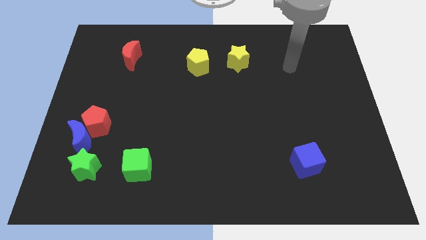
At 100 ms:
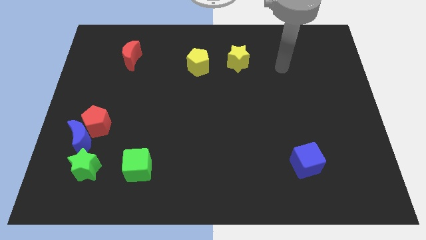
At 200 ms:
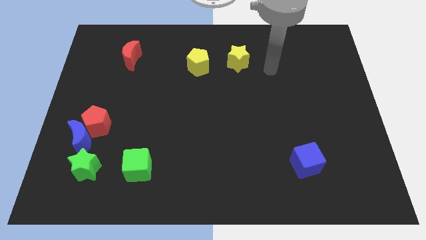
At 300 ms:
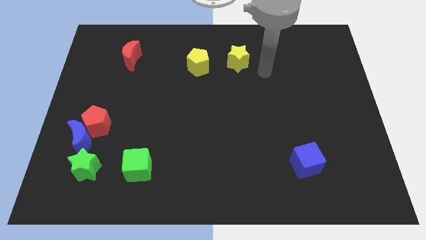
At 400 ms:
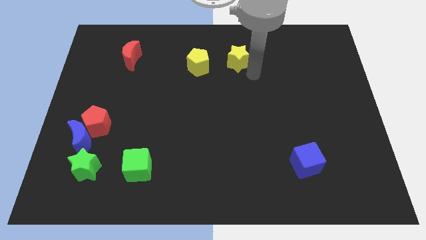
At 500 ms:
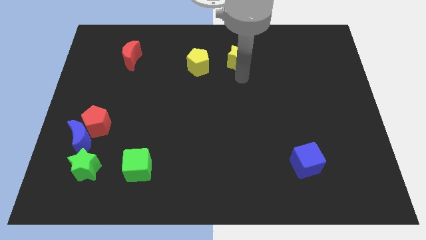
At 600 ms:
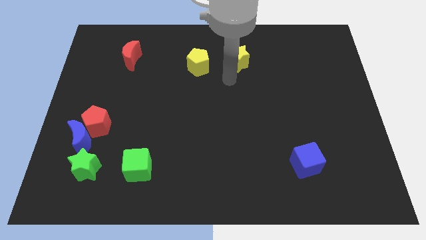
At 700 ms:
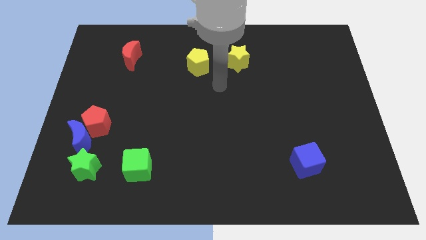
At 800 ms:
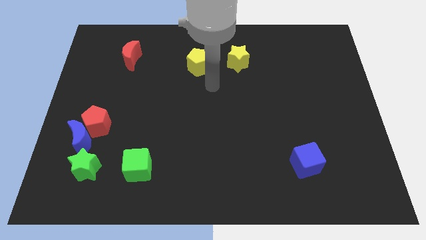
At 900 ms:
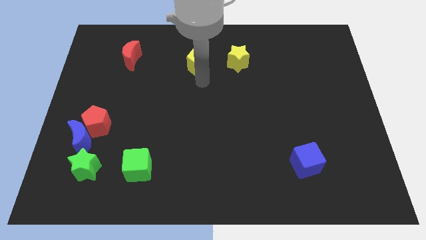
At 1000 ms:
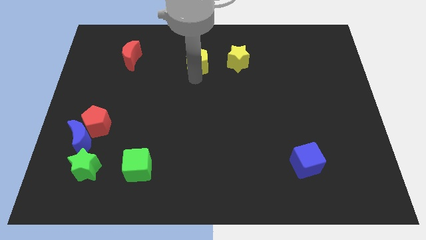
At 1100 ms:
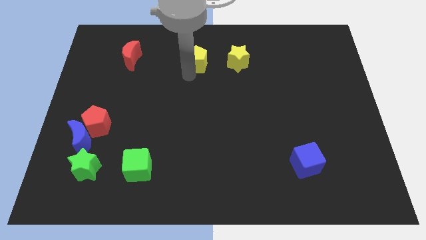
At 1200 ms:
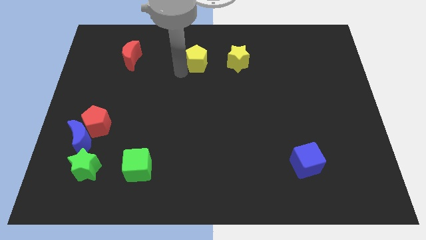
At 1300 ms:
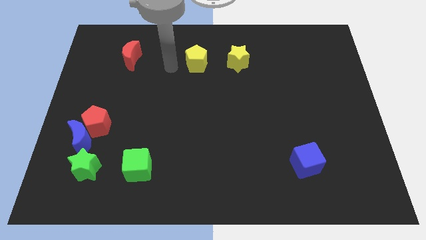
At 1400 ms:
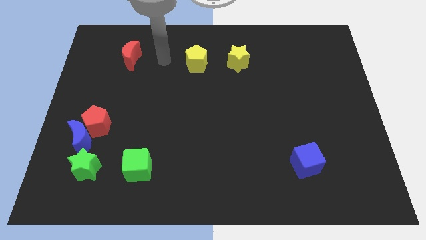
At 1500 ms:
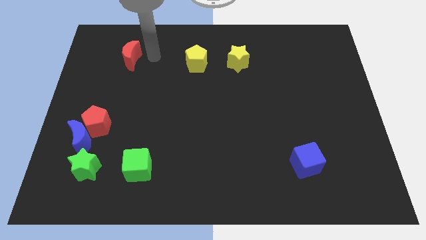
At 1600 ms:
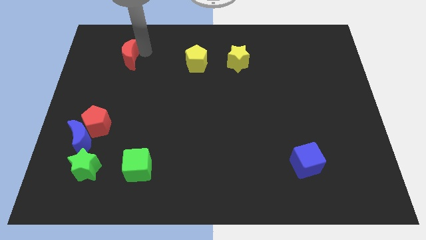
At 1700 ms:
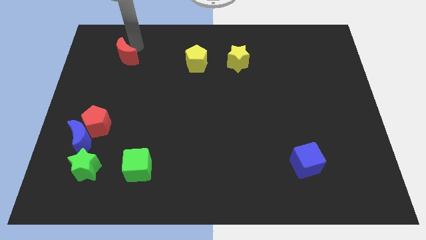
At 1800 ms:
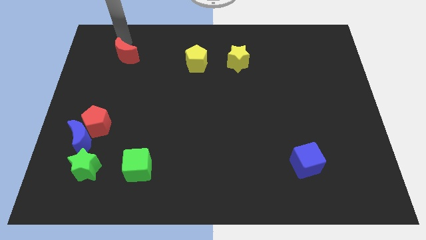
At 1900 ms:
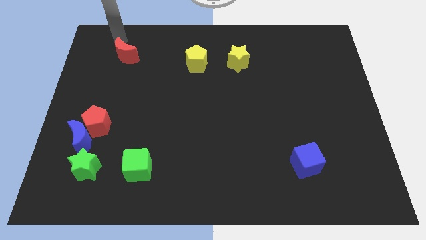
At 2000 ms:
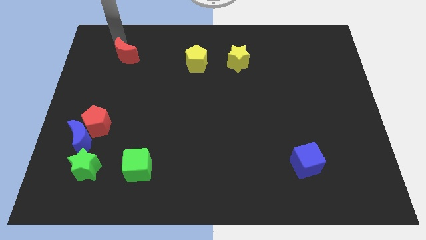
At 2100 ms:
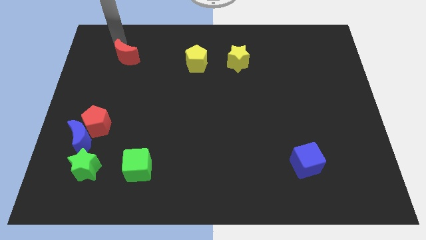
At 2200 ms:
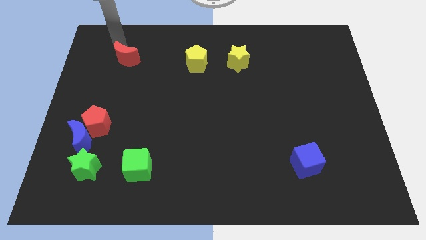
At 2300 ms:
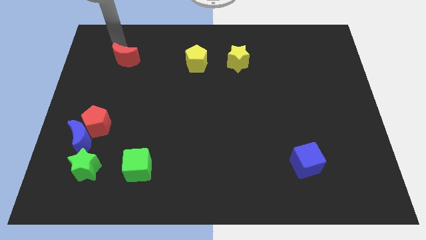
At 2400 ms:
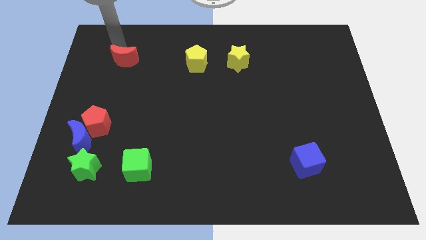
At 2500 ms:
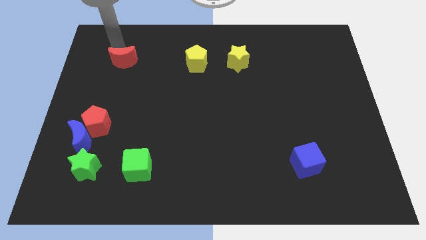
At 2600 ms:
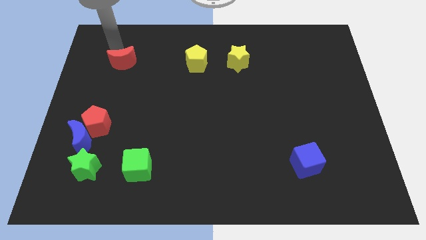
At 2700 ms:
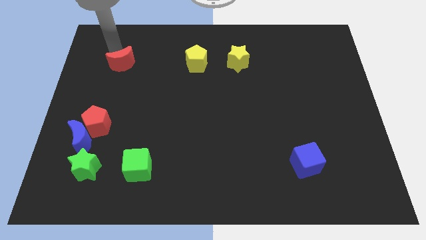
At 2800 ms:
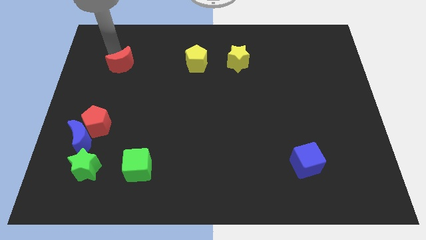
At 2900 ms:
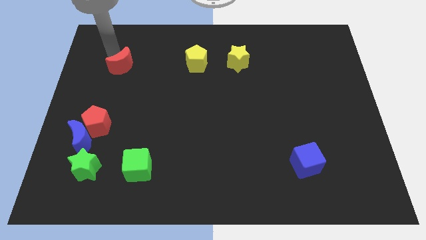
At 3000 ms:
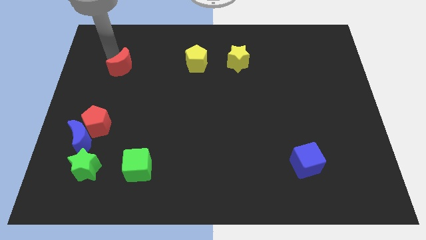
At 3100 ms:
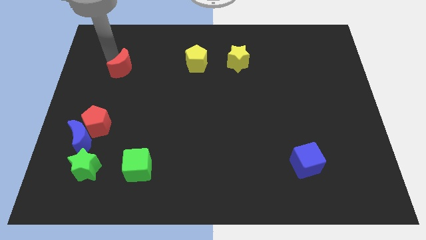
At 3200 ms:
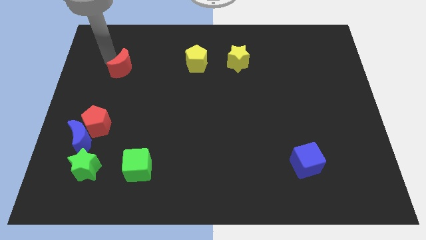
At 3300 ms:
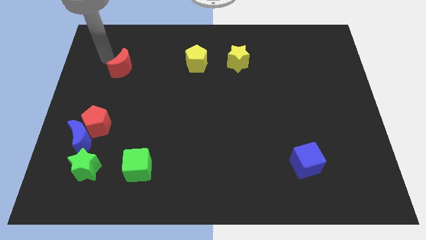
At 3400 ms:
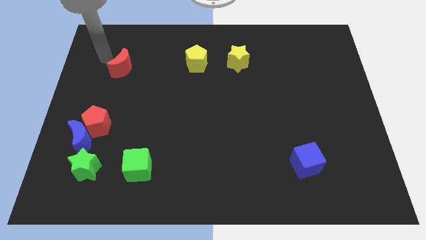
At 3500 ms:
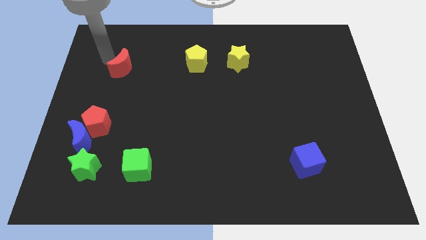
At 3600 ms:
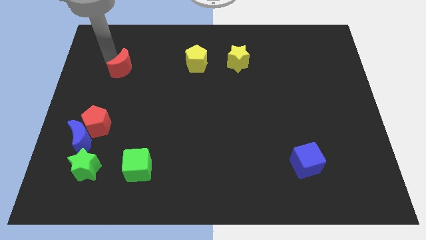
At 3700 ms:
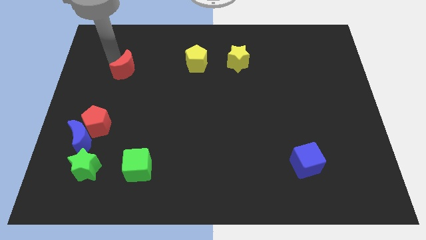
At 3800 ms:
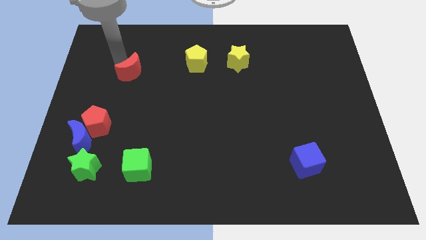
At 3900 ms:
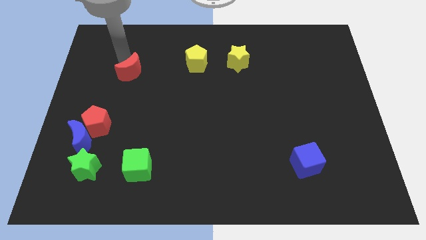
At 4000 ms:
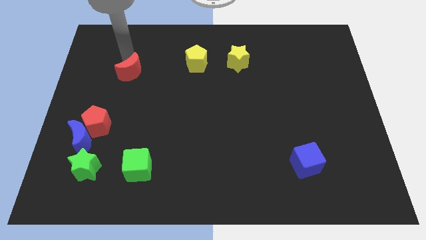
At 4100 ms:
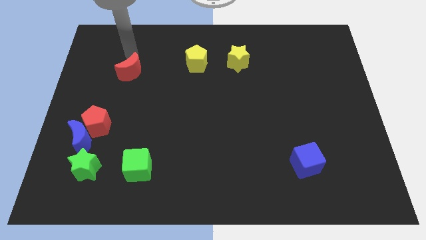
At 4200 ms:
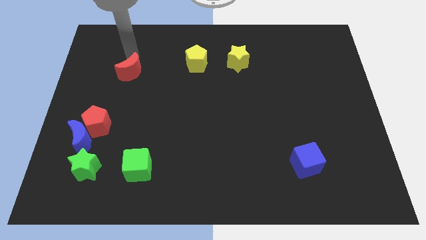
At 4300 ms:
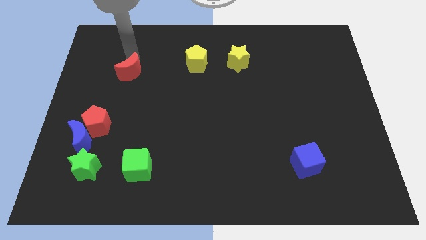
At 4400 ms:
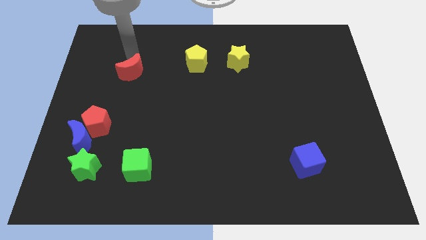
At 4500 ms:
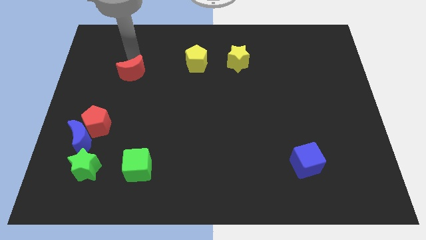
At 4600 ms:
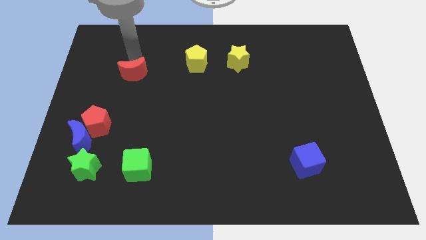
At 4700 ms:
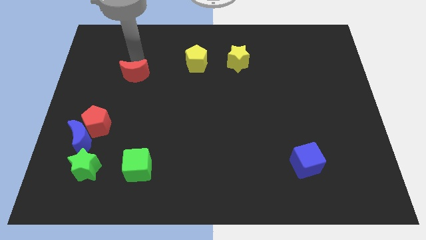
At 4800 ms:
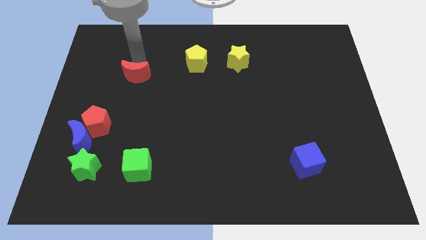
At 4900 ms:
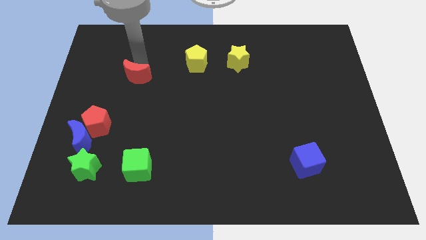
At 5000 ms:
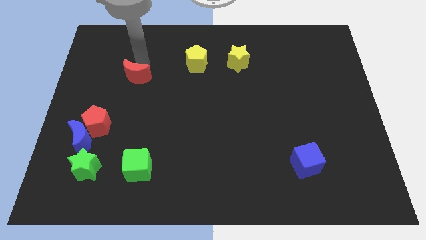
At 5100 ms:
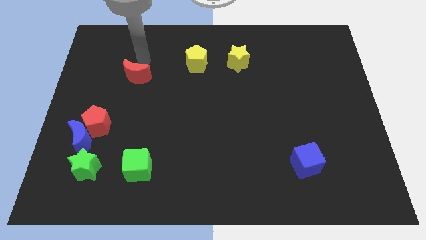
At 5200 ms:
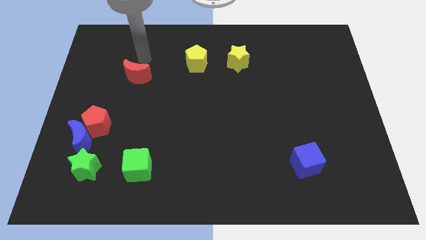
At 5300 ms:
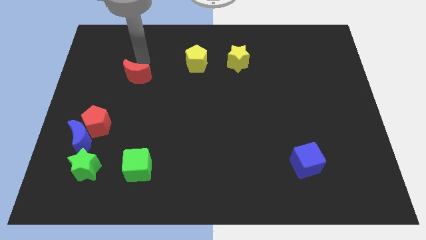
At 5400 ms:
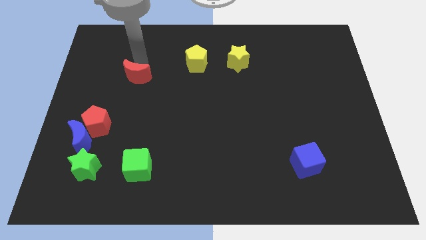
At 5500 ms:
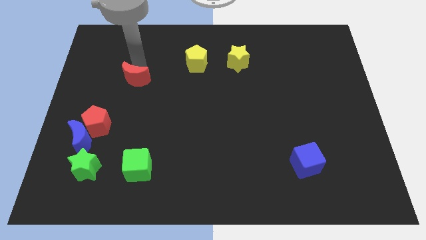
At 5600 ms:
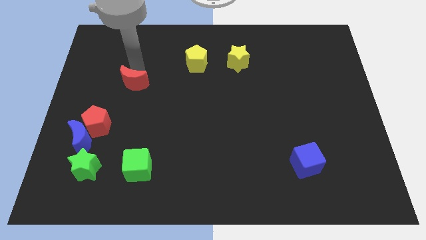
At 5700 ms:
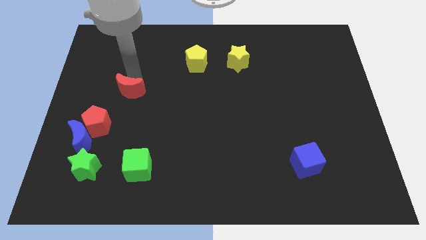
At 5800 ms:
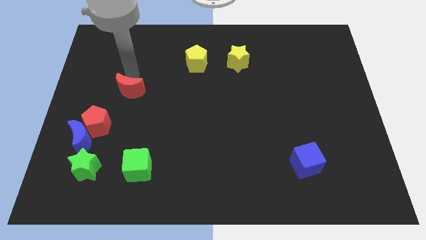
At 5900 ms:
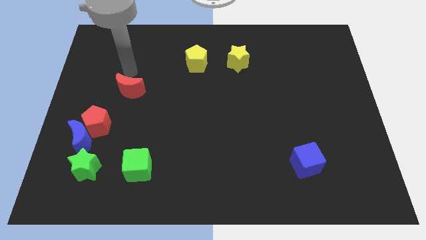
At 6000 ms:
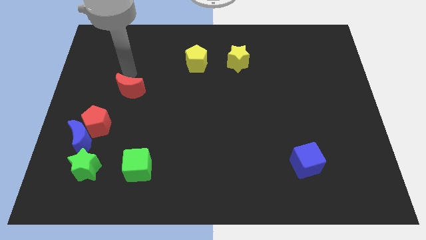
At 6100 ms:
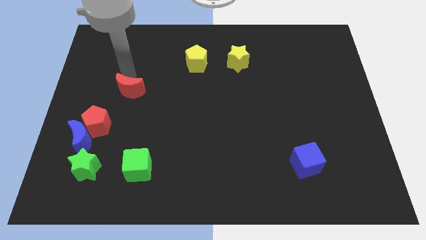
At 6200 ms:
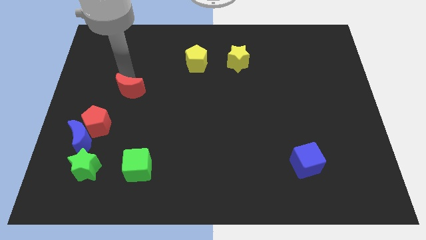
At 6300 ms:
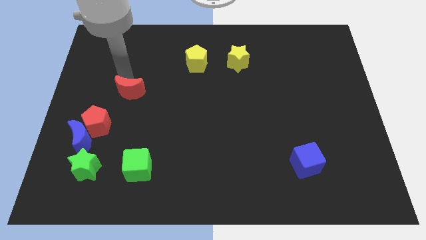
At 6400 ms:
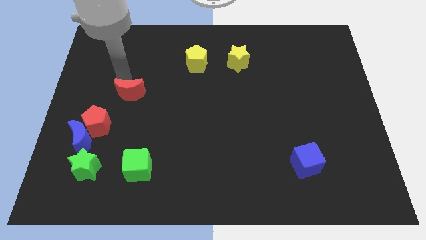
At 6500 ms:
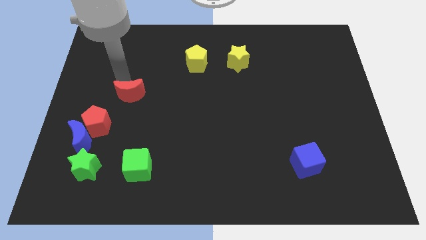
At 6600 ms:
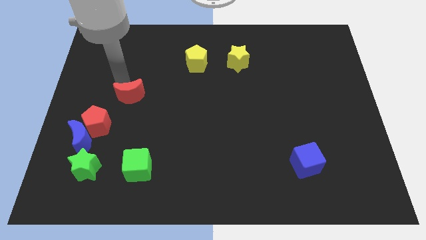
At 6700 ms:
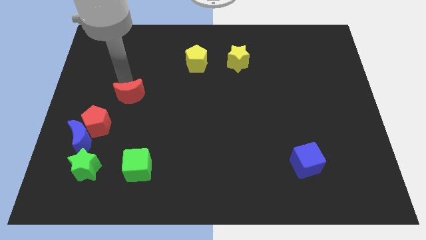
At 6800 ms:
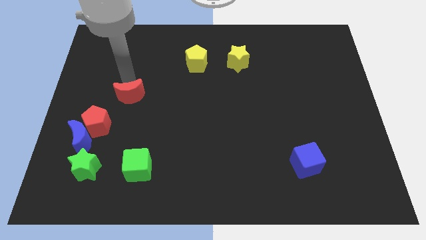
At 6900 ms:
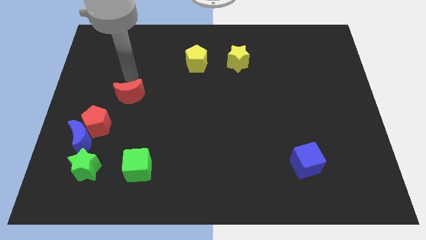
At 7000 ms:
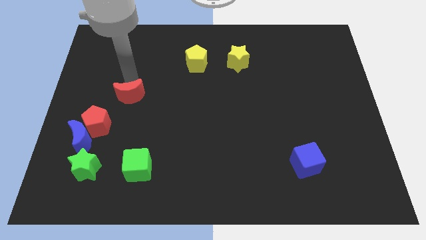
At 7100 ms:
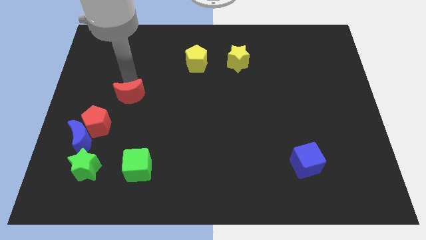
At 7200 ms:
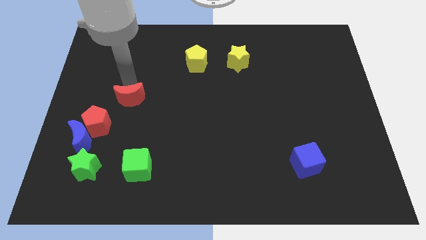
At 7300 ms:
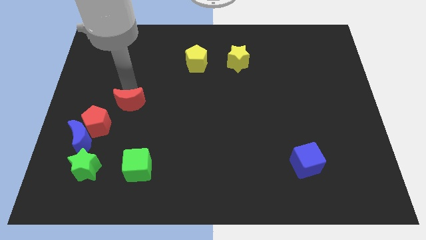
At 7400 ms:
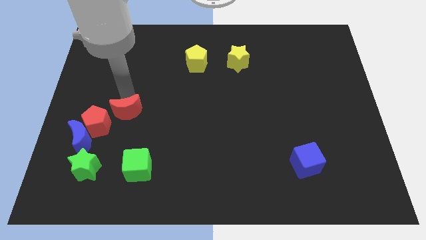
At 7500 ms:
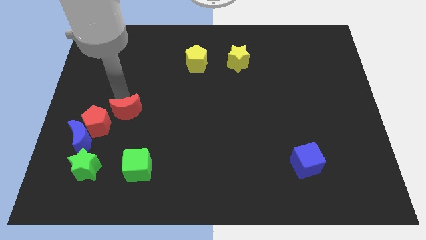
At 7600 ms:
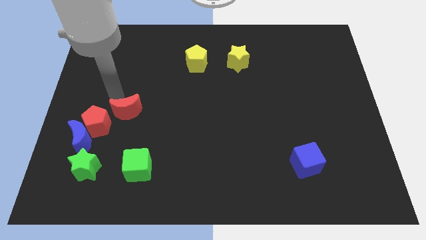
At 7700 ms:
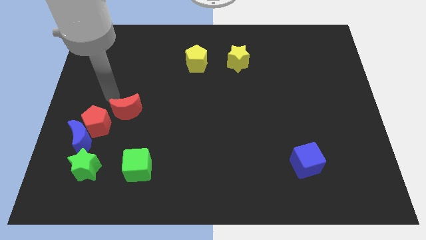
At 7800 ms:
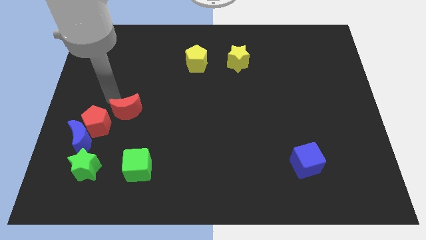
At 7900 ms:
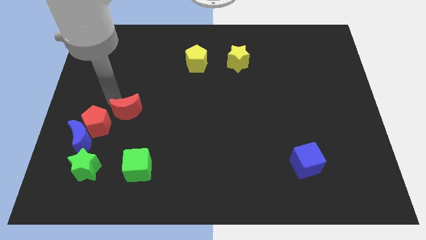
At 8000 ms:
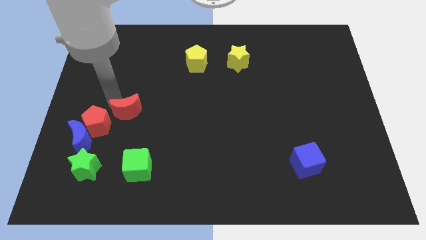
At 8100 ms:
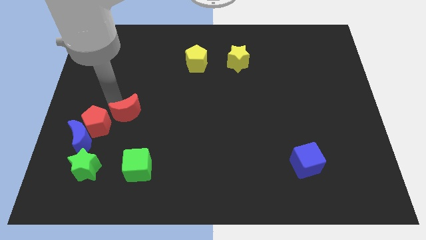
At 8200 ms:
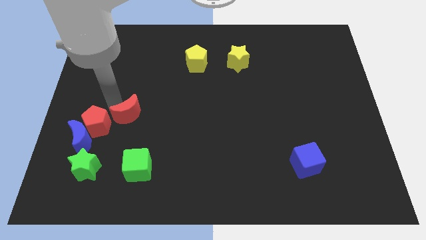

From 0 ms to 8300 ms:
move the red moon above the green cube
